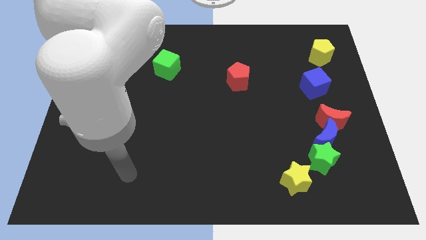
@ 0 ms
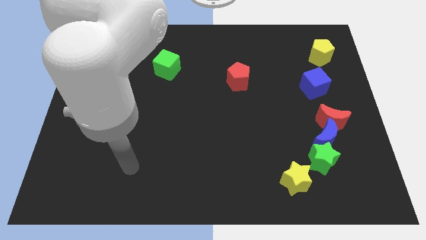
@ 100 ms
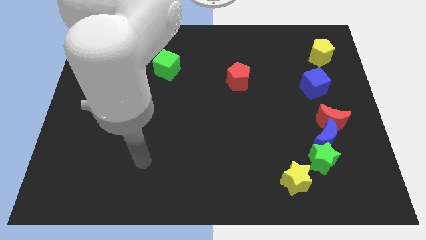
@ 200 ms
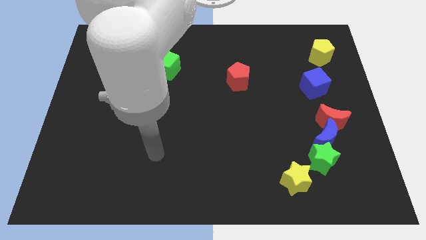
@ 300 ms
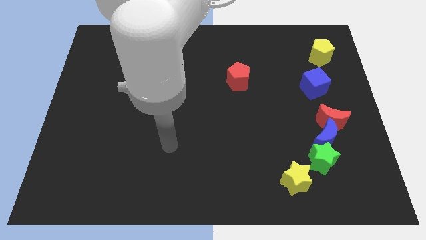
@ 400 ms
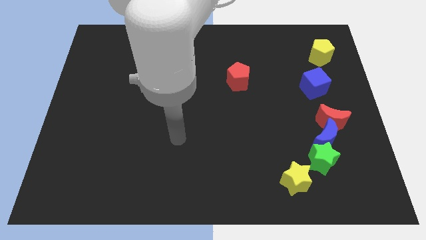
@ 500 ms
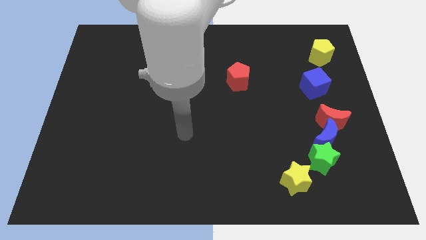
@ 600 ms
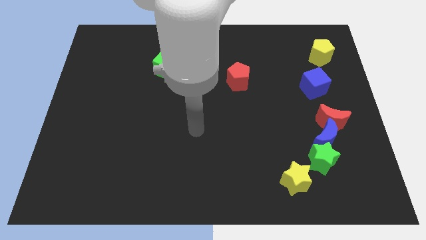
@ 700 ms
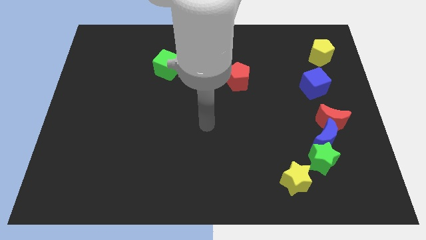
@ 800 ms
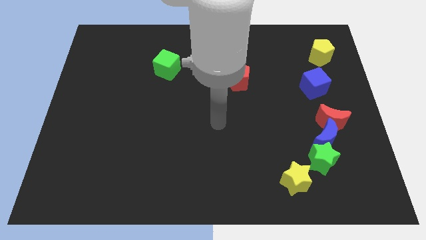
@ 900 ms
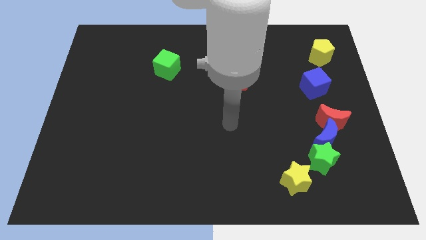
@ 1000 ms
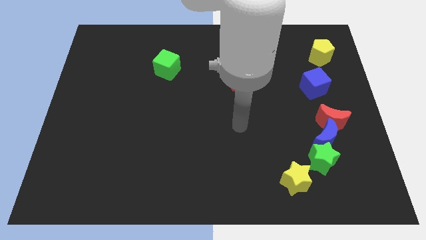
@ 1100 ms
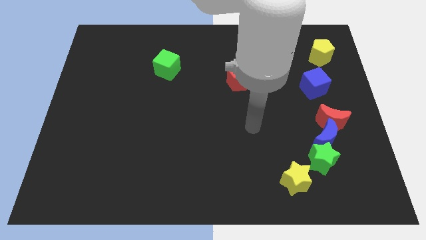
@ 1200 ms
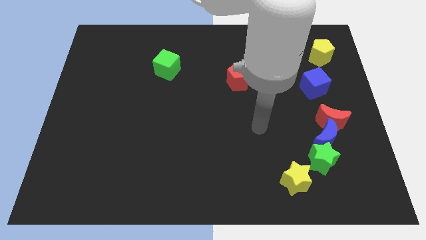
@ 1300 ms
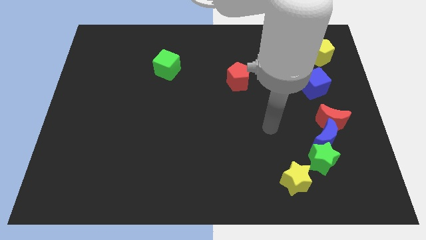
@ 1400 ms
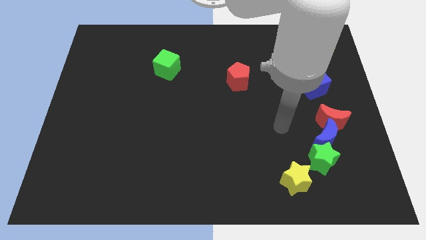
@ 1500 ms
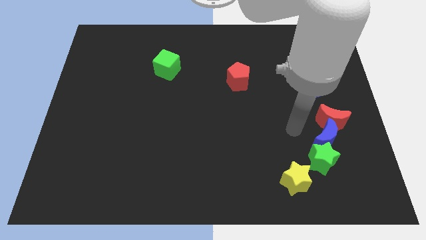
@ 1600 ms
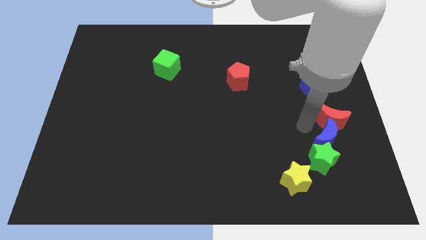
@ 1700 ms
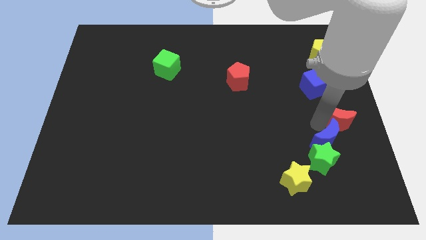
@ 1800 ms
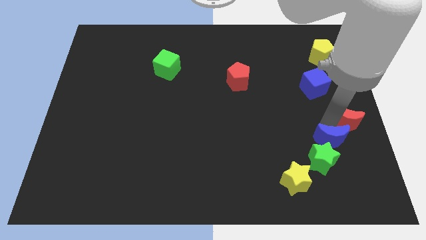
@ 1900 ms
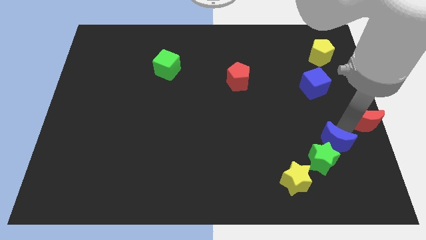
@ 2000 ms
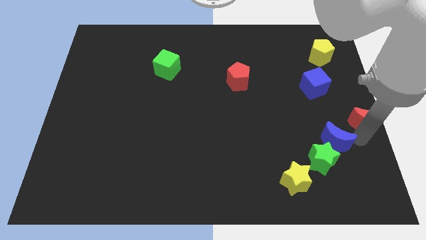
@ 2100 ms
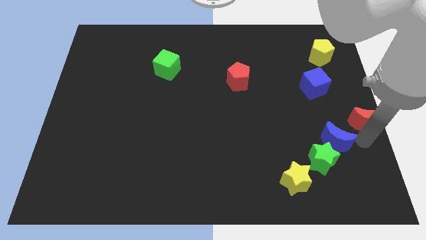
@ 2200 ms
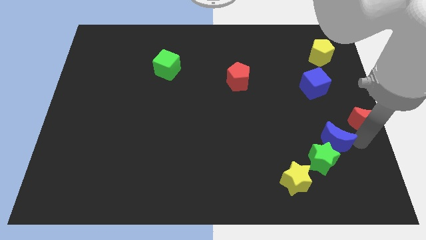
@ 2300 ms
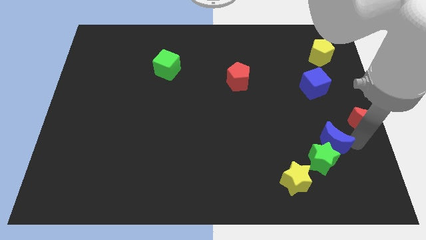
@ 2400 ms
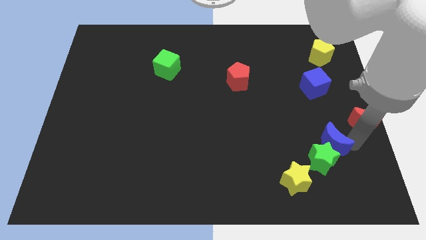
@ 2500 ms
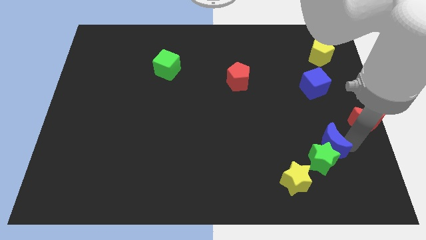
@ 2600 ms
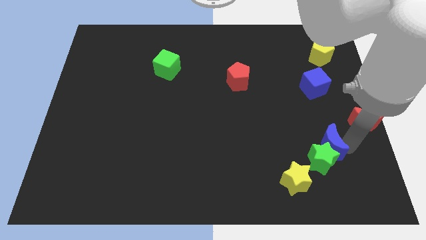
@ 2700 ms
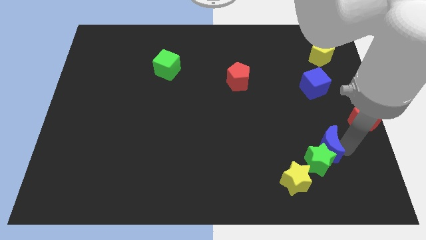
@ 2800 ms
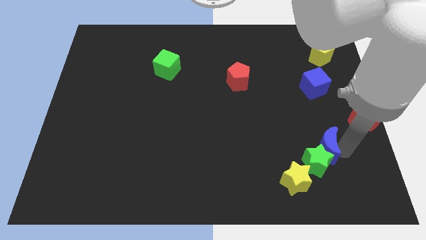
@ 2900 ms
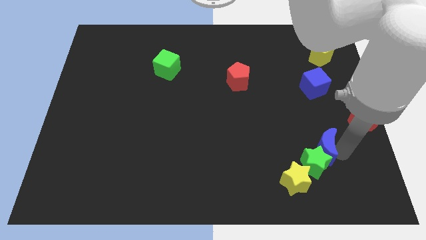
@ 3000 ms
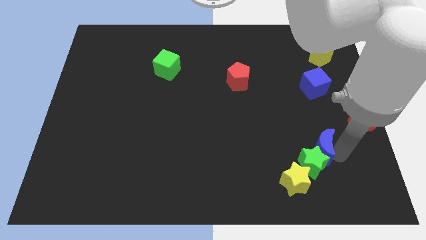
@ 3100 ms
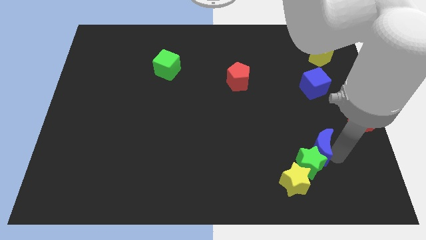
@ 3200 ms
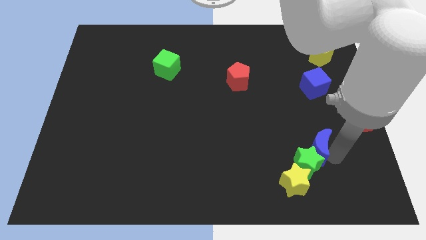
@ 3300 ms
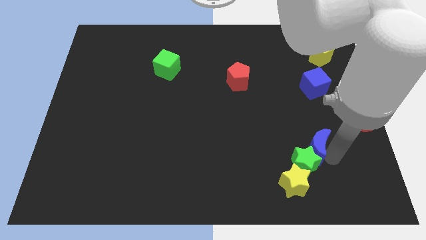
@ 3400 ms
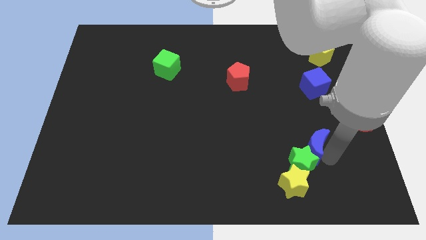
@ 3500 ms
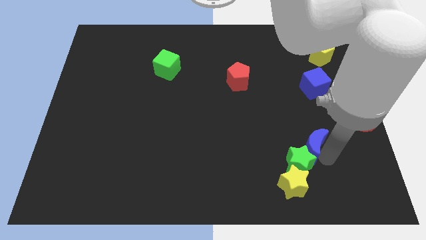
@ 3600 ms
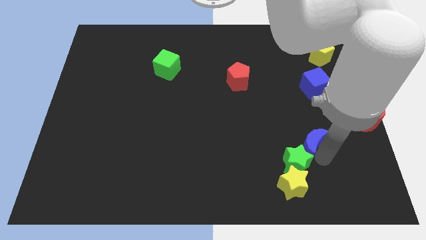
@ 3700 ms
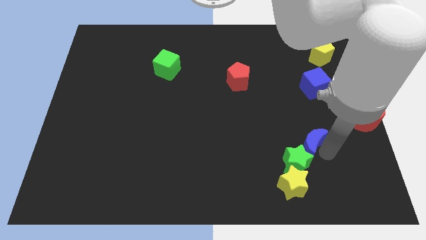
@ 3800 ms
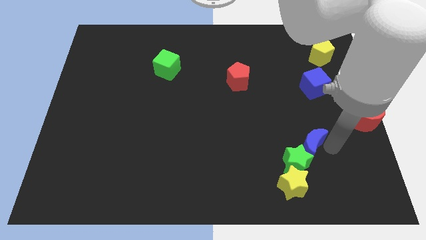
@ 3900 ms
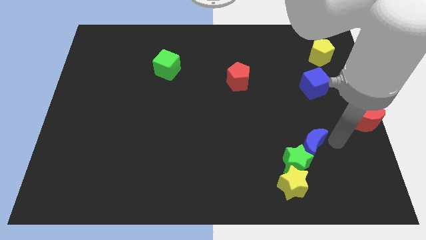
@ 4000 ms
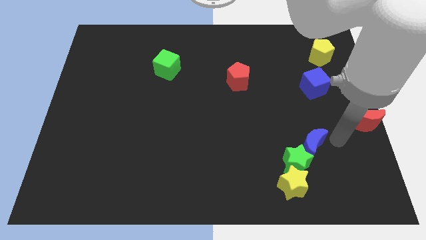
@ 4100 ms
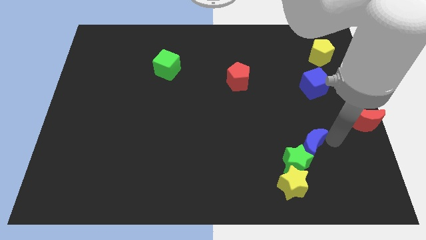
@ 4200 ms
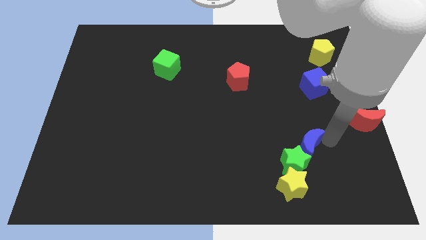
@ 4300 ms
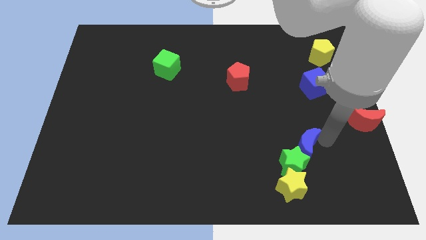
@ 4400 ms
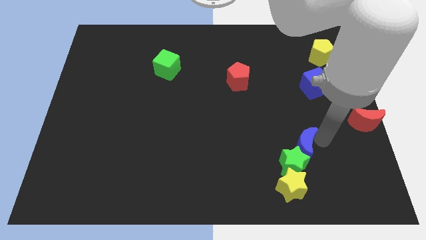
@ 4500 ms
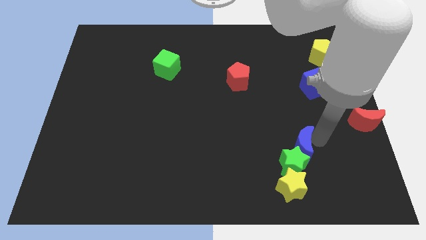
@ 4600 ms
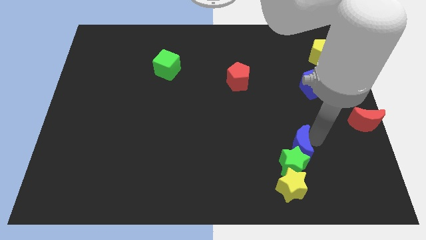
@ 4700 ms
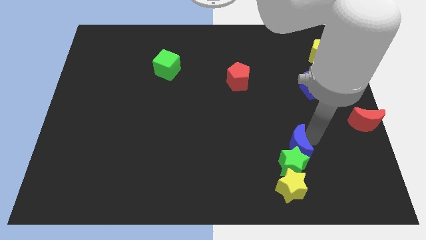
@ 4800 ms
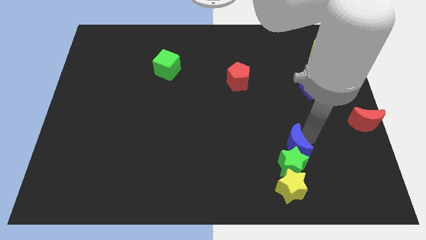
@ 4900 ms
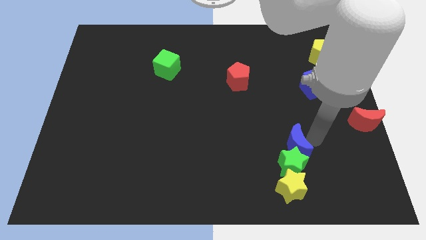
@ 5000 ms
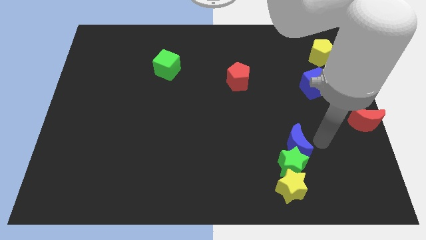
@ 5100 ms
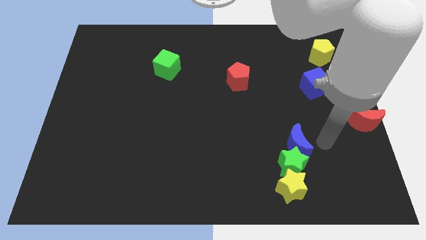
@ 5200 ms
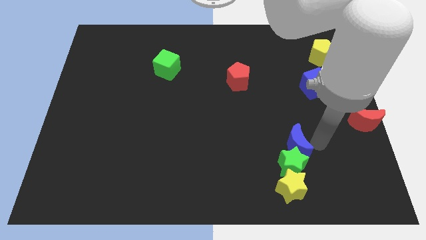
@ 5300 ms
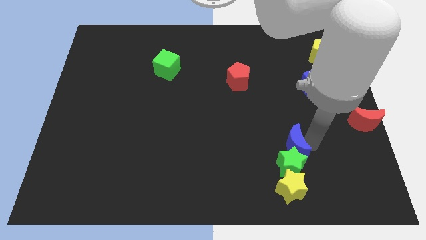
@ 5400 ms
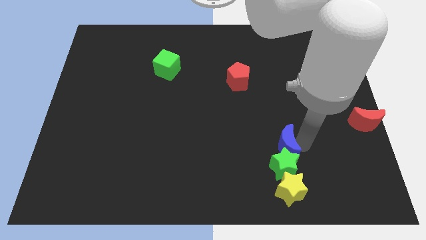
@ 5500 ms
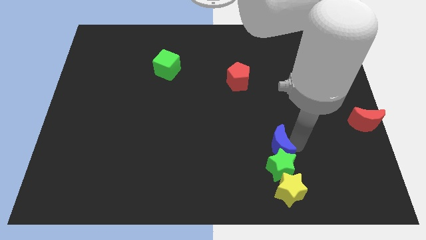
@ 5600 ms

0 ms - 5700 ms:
move the blue moon away from the green star and red moon

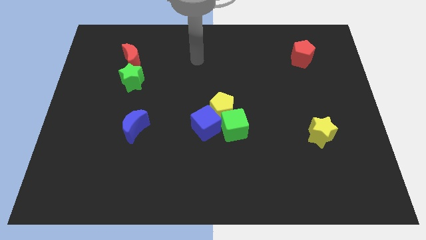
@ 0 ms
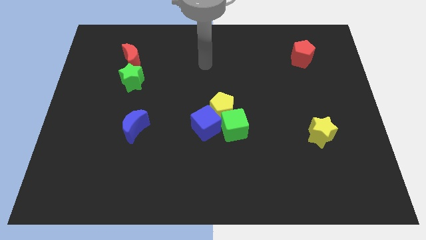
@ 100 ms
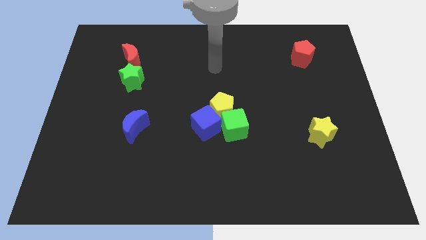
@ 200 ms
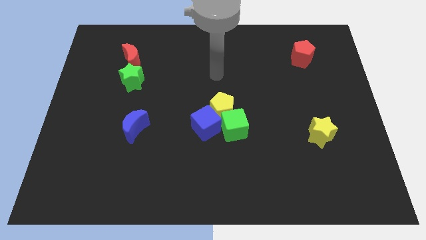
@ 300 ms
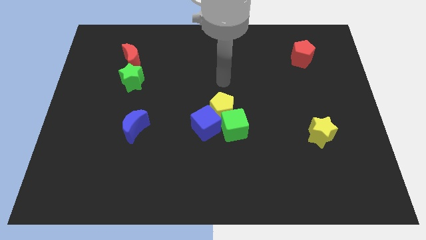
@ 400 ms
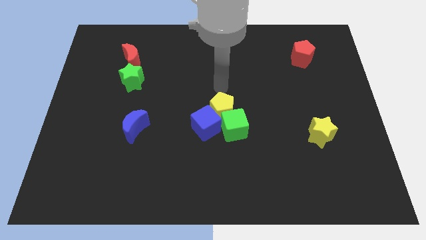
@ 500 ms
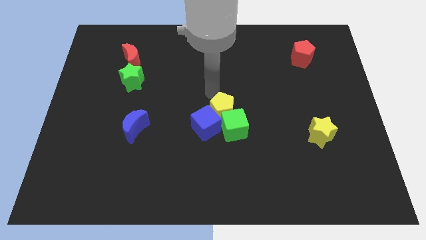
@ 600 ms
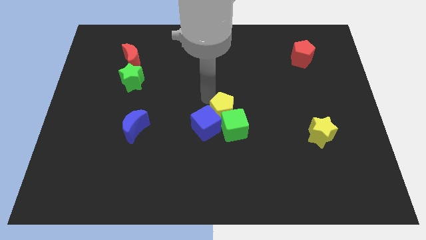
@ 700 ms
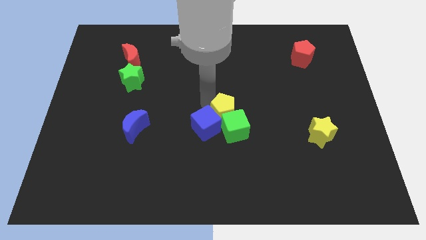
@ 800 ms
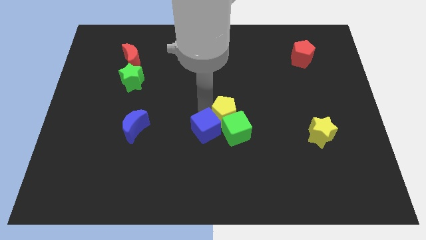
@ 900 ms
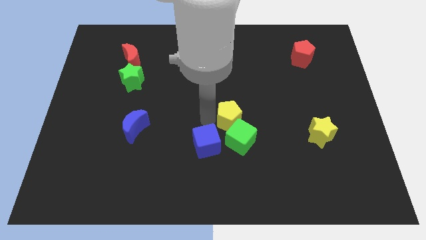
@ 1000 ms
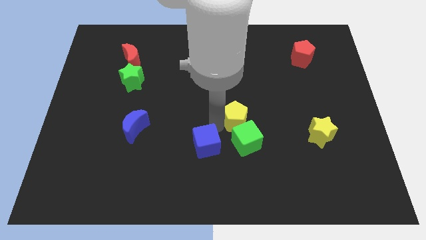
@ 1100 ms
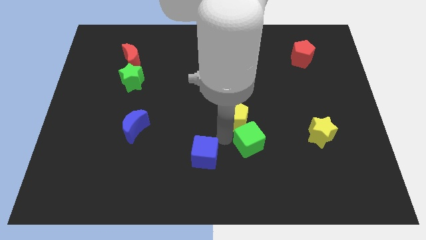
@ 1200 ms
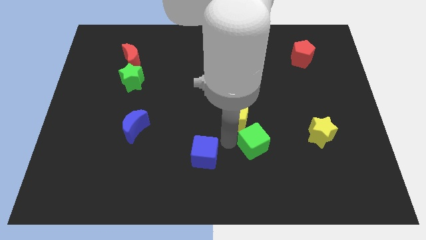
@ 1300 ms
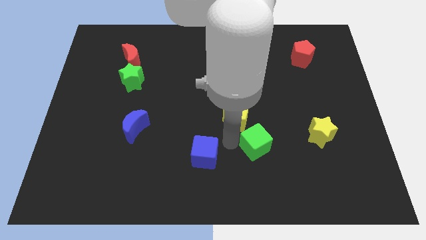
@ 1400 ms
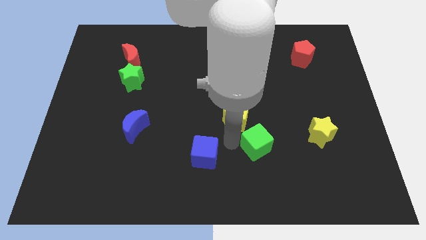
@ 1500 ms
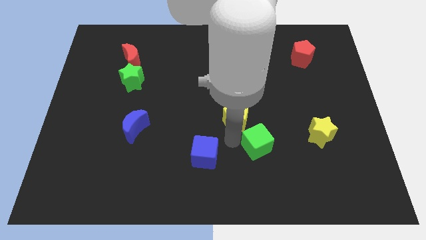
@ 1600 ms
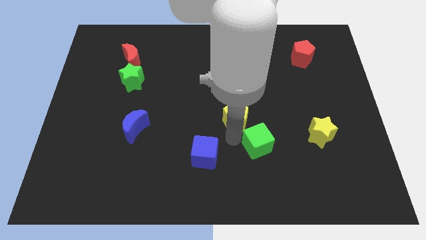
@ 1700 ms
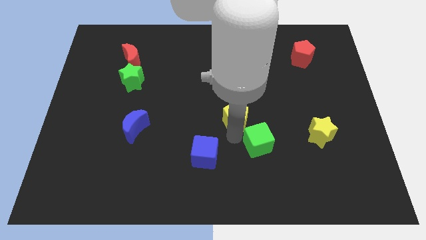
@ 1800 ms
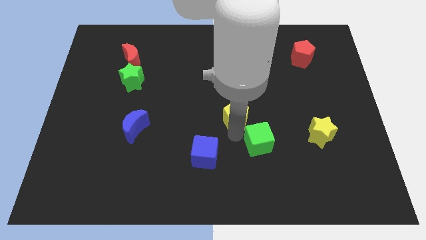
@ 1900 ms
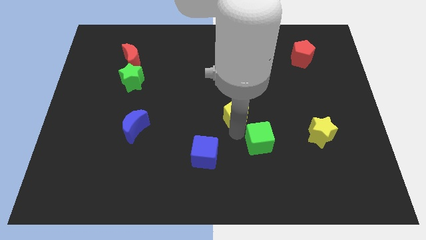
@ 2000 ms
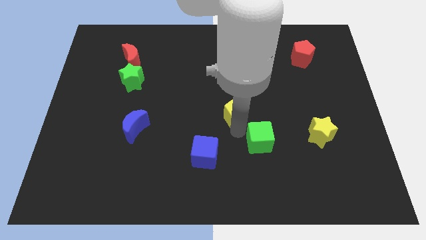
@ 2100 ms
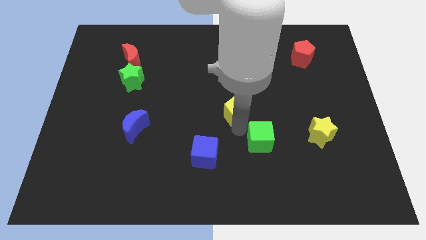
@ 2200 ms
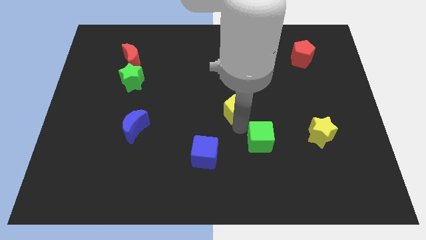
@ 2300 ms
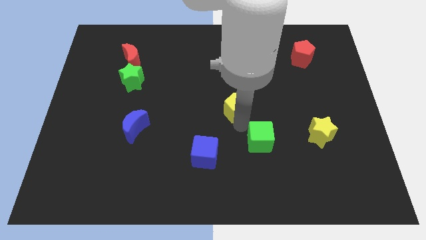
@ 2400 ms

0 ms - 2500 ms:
separate the yellow pentagon from the green cube and blue cube

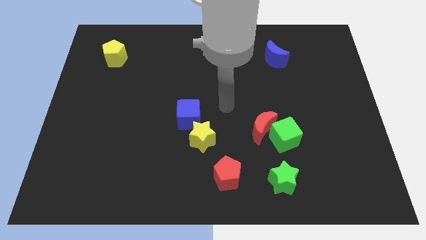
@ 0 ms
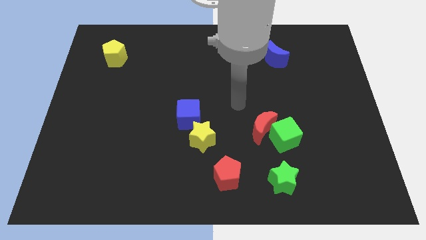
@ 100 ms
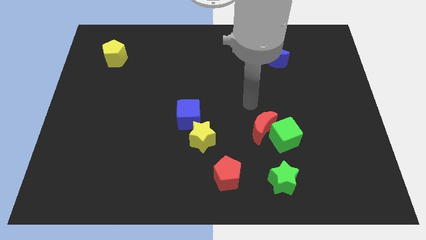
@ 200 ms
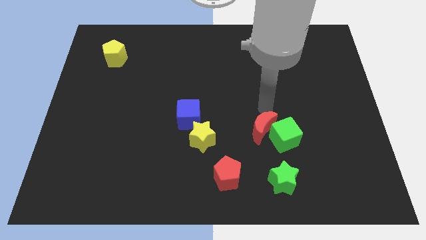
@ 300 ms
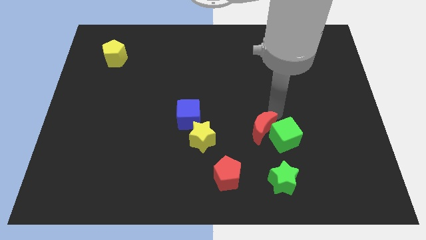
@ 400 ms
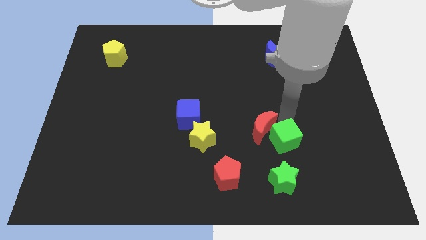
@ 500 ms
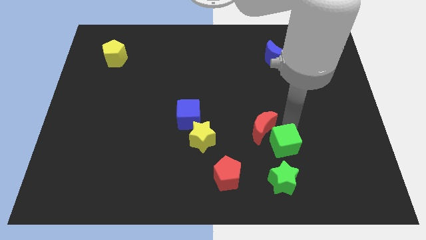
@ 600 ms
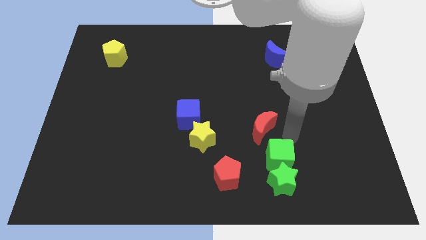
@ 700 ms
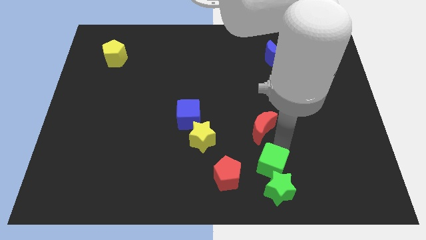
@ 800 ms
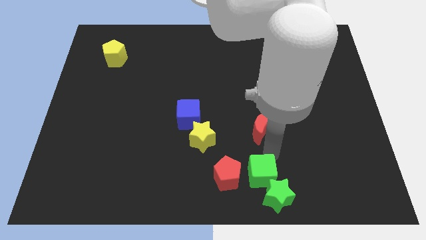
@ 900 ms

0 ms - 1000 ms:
separate the red moon from the green cube

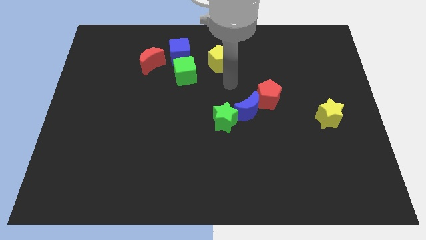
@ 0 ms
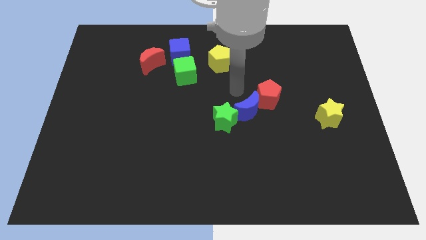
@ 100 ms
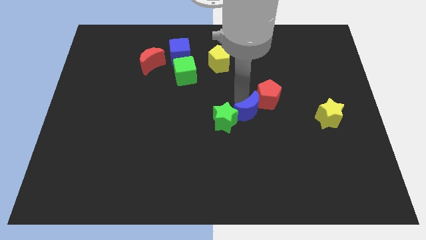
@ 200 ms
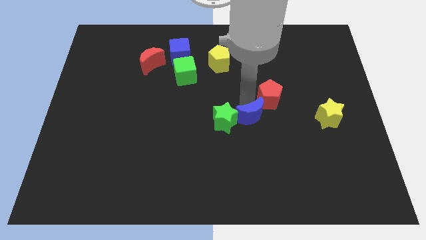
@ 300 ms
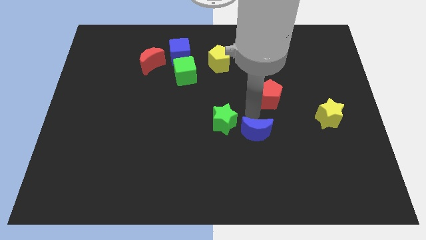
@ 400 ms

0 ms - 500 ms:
separate the red pentagon from the blue moon
